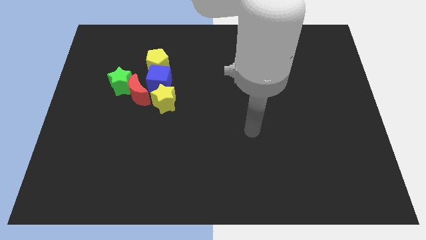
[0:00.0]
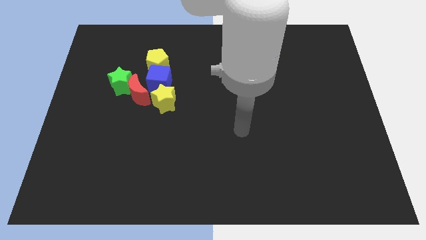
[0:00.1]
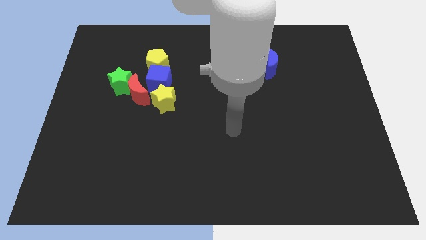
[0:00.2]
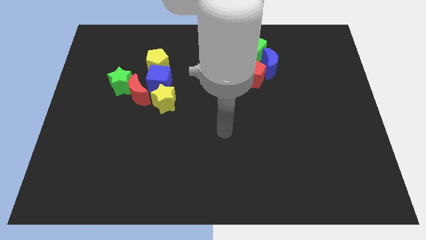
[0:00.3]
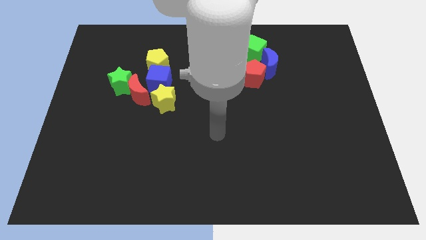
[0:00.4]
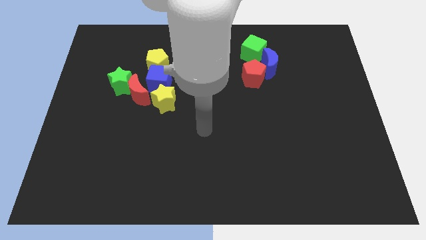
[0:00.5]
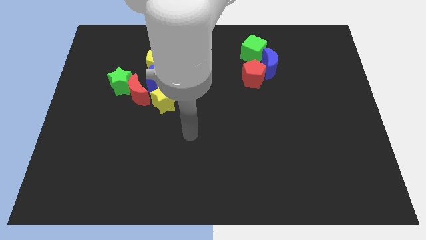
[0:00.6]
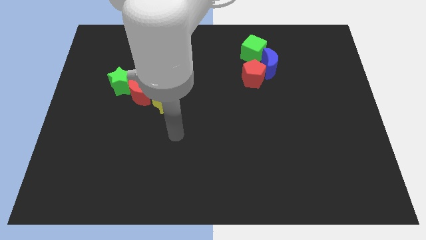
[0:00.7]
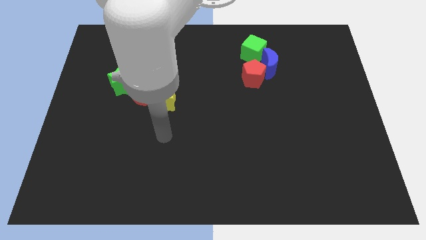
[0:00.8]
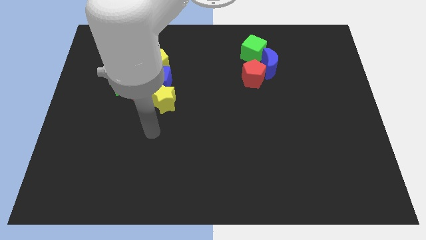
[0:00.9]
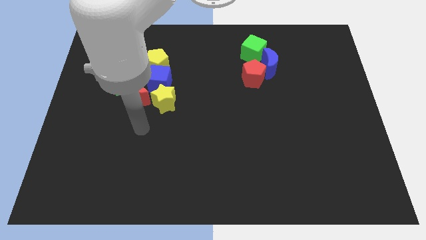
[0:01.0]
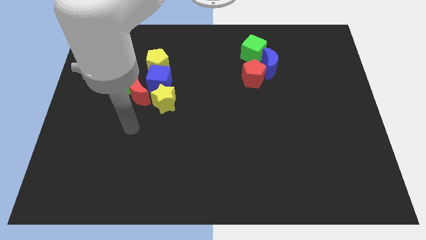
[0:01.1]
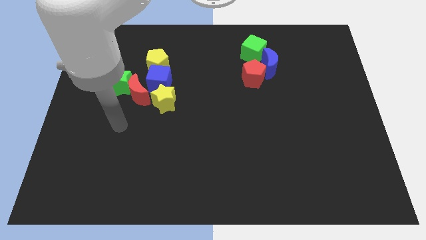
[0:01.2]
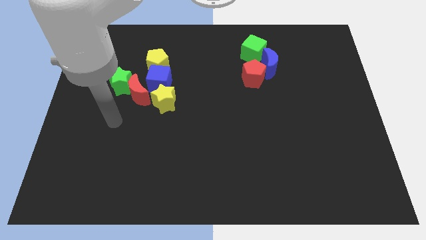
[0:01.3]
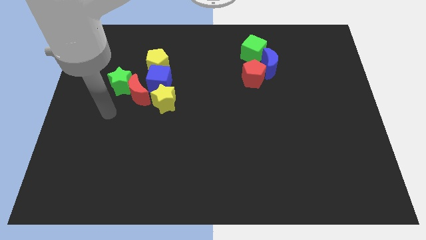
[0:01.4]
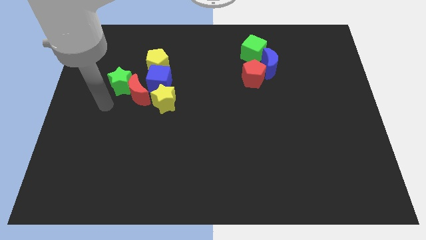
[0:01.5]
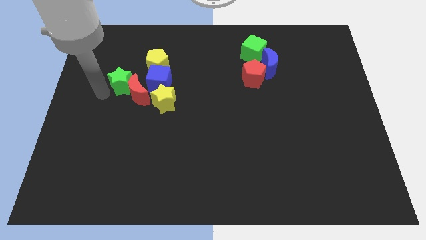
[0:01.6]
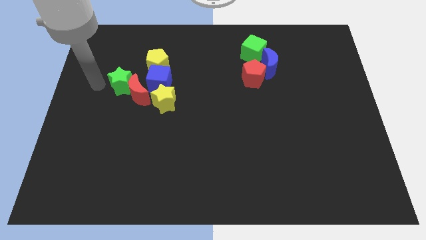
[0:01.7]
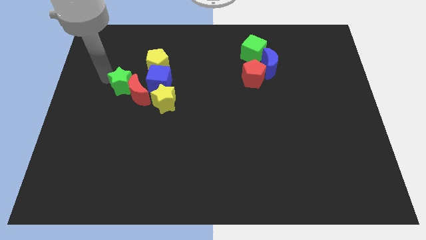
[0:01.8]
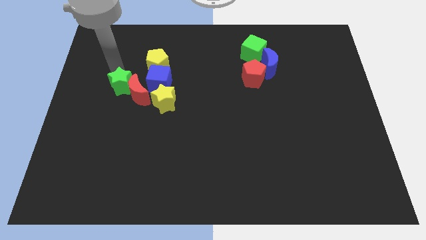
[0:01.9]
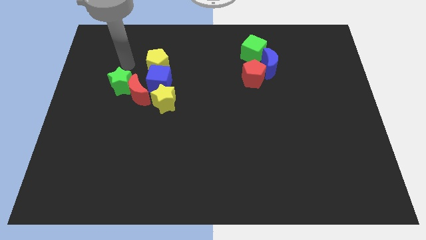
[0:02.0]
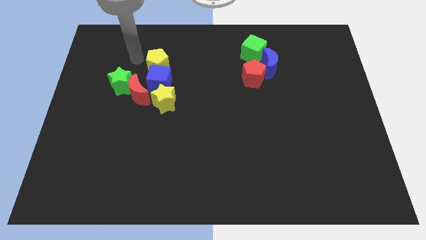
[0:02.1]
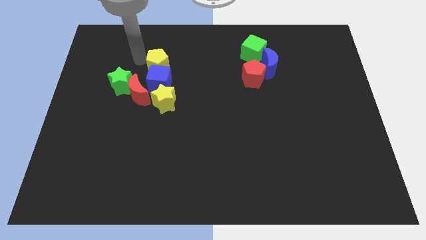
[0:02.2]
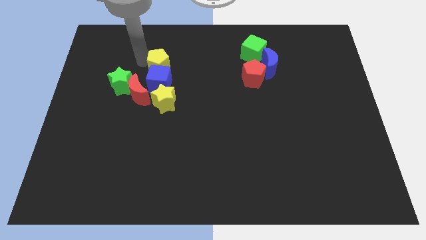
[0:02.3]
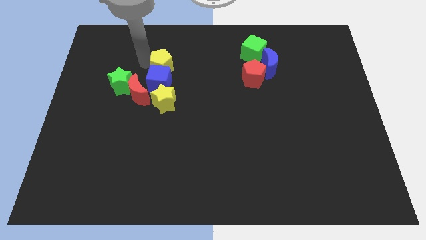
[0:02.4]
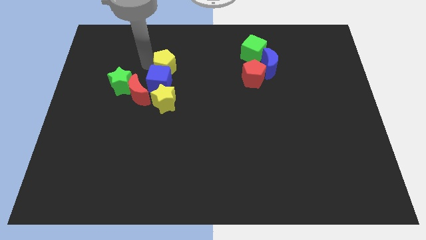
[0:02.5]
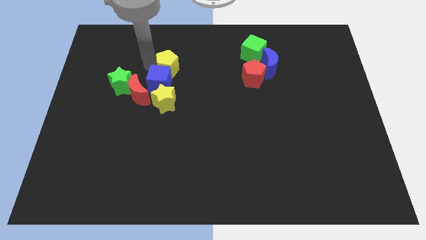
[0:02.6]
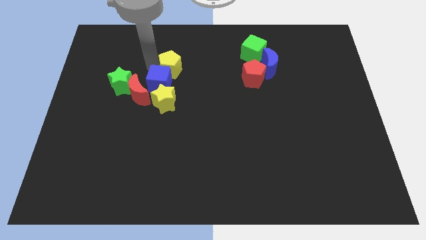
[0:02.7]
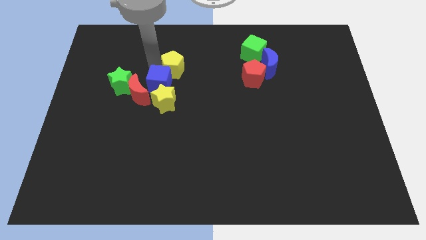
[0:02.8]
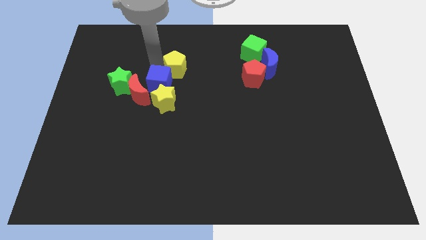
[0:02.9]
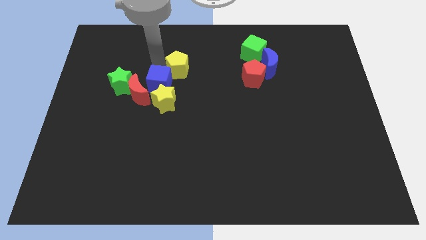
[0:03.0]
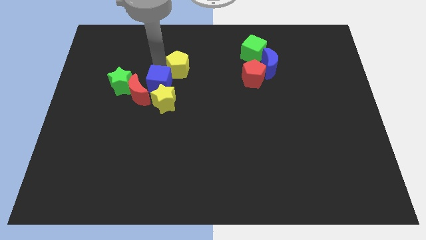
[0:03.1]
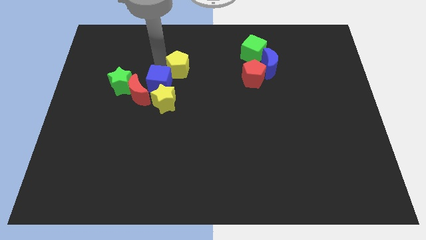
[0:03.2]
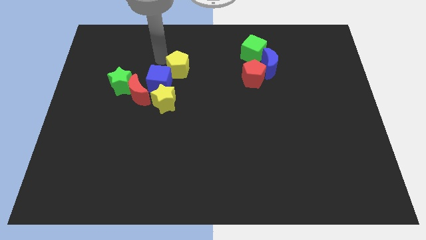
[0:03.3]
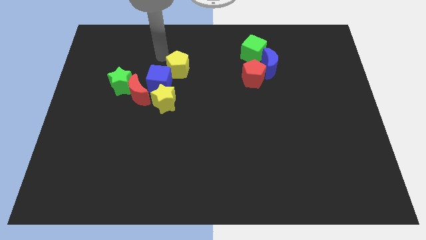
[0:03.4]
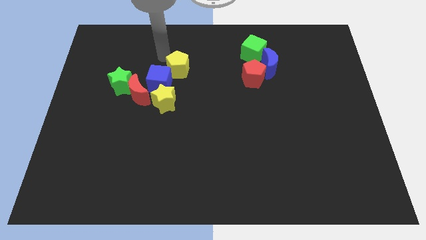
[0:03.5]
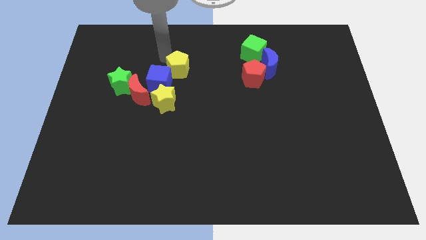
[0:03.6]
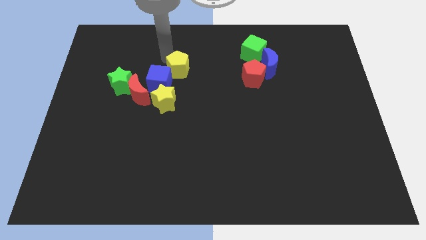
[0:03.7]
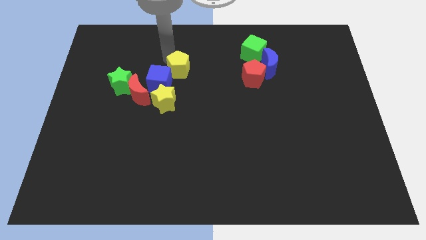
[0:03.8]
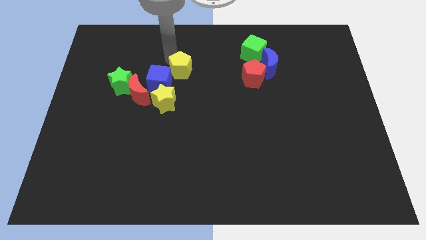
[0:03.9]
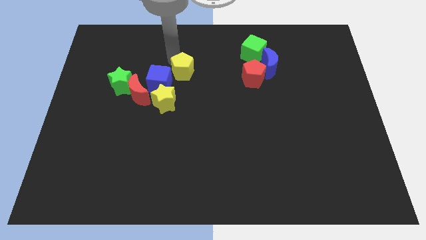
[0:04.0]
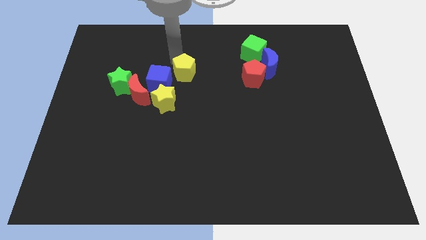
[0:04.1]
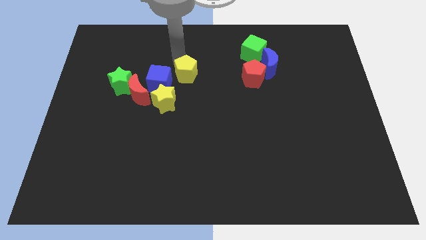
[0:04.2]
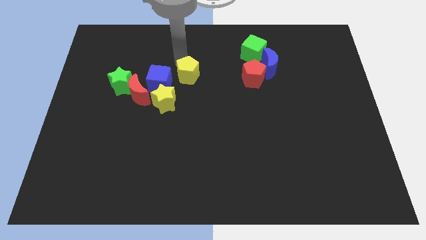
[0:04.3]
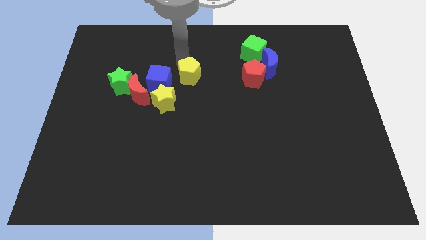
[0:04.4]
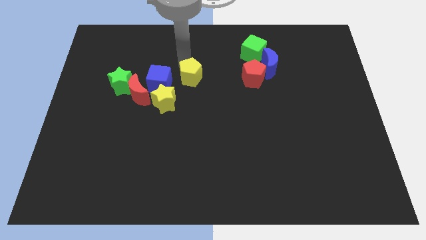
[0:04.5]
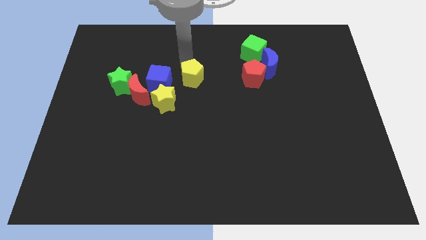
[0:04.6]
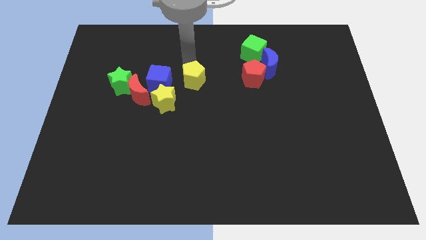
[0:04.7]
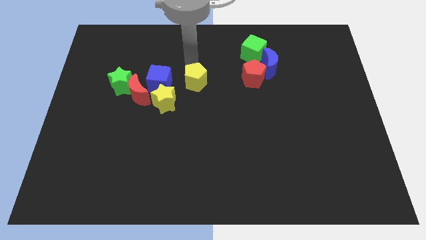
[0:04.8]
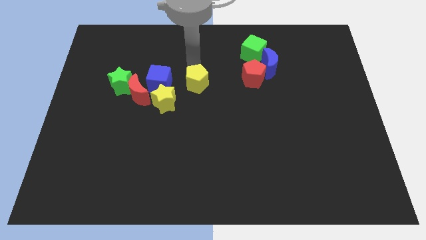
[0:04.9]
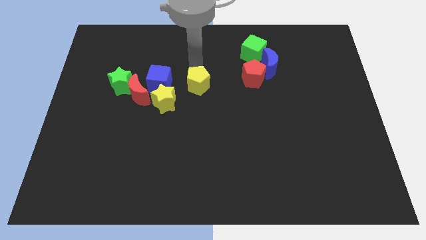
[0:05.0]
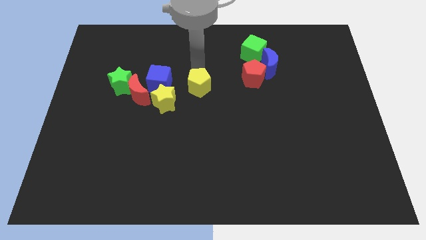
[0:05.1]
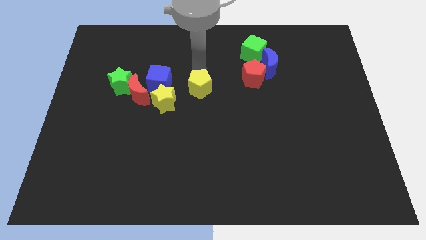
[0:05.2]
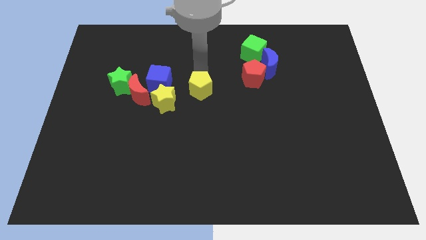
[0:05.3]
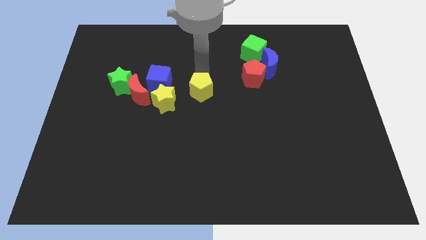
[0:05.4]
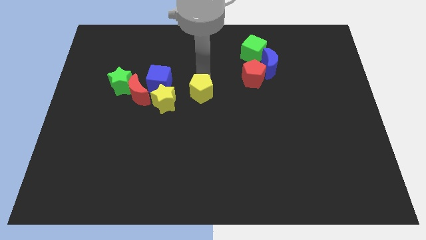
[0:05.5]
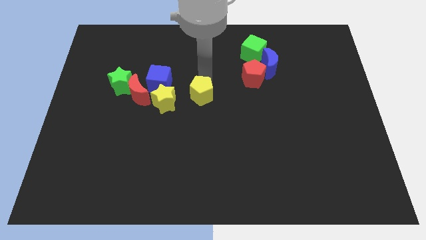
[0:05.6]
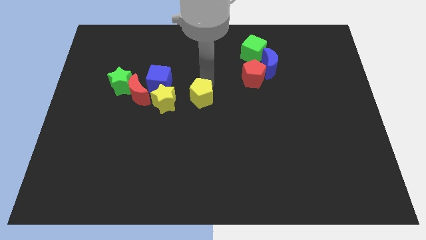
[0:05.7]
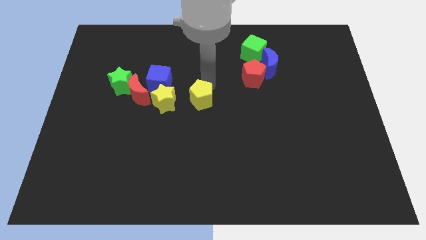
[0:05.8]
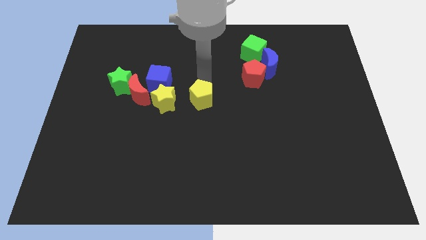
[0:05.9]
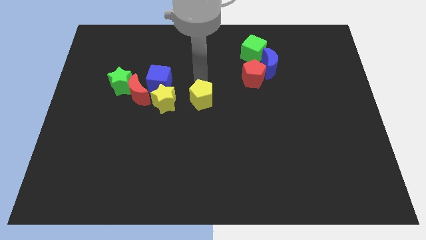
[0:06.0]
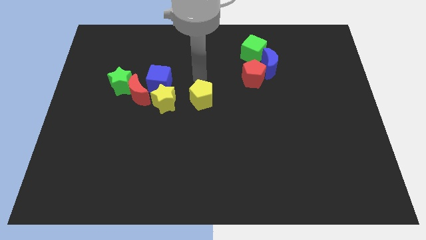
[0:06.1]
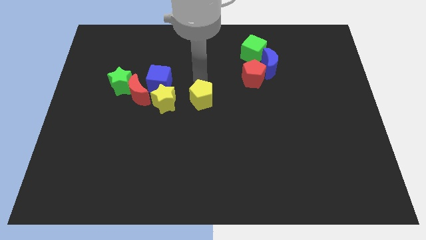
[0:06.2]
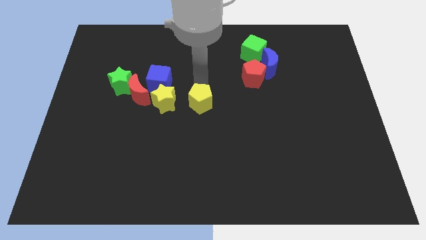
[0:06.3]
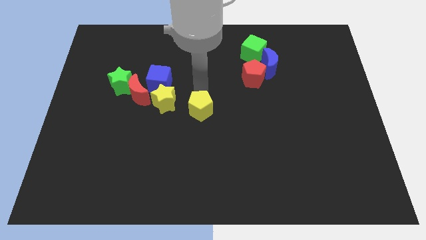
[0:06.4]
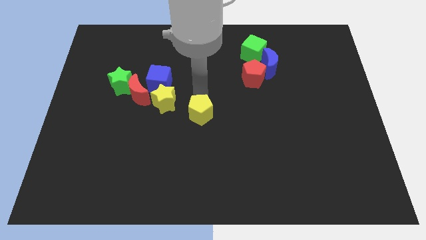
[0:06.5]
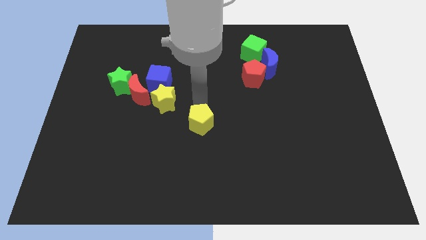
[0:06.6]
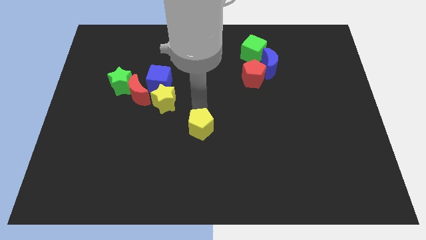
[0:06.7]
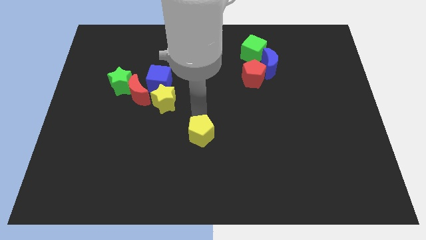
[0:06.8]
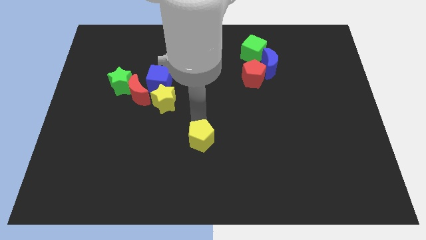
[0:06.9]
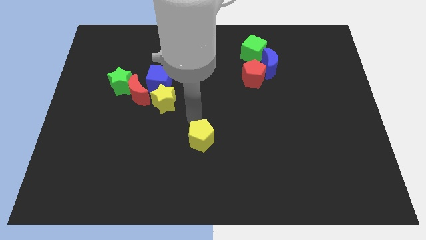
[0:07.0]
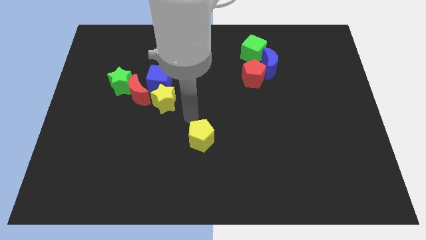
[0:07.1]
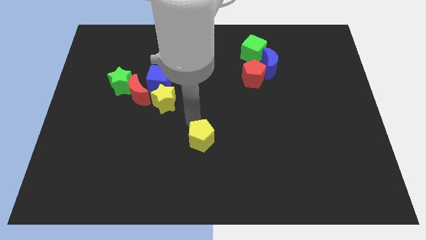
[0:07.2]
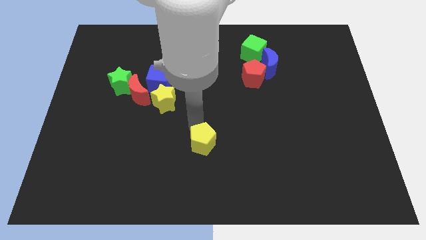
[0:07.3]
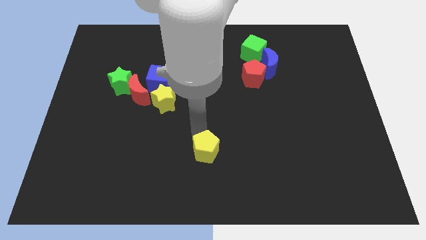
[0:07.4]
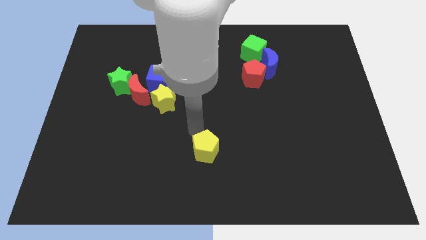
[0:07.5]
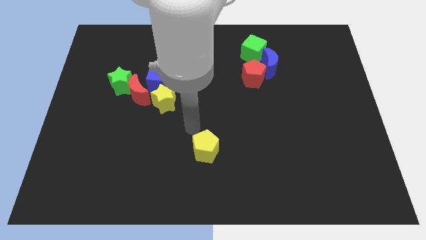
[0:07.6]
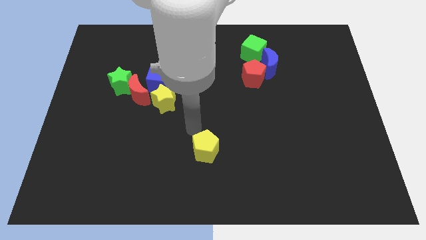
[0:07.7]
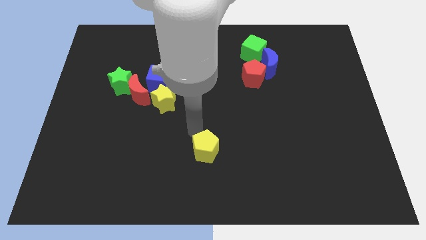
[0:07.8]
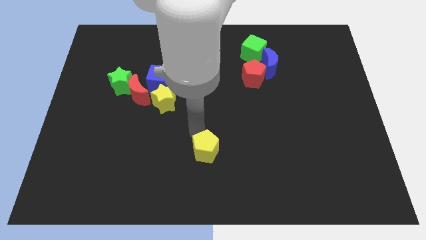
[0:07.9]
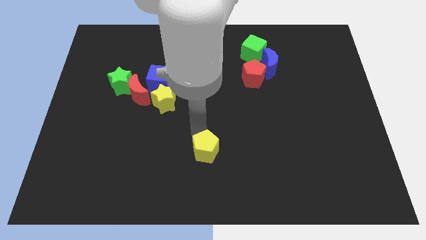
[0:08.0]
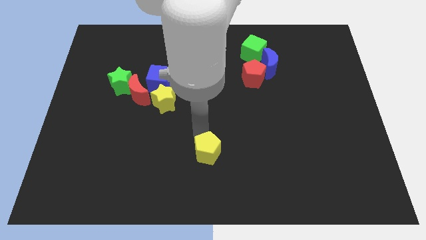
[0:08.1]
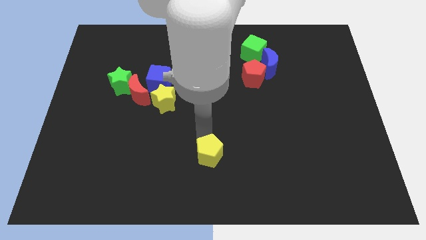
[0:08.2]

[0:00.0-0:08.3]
move the yellow pentagon to the bottom side
